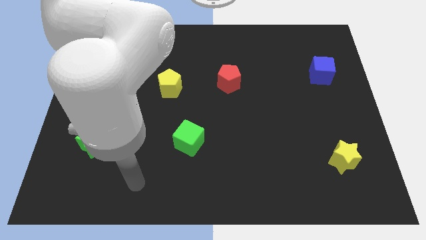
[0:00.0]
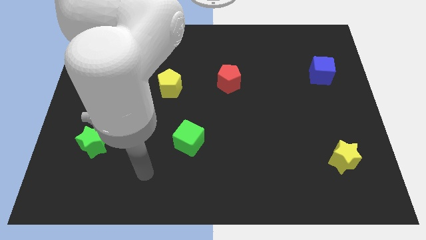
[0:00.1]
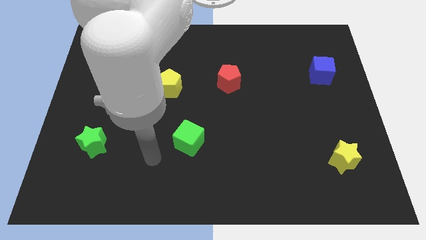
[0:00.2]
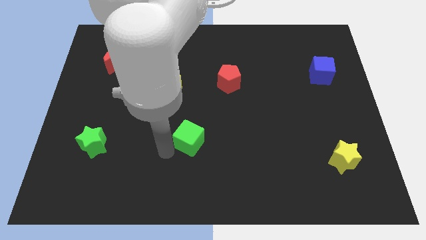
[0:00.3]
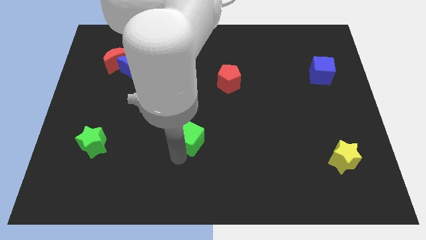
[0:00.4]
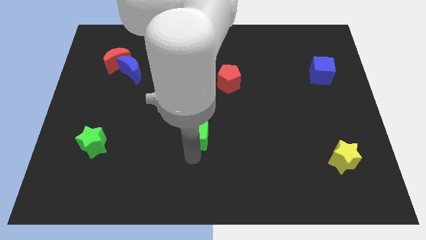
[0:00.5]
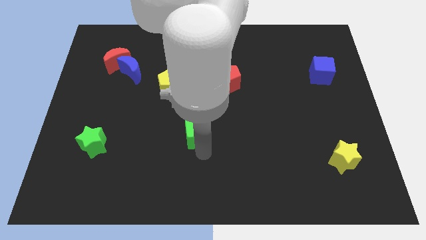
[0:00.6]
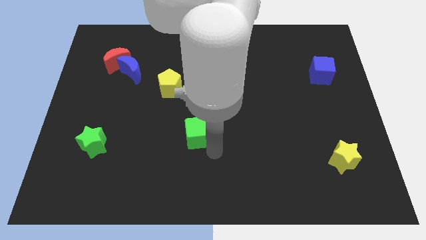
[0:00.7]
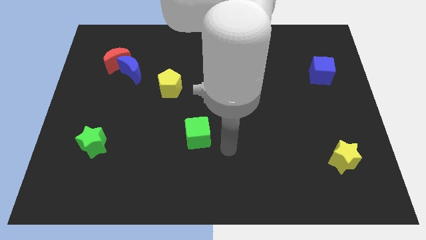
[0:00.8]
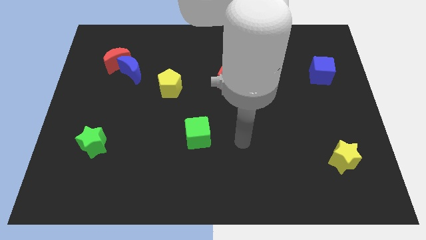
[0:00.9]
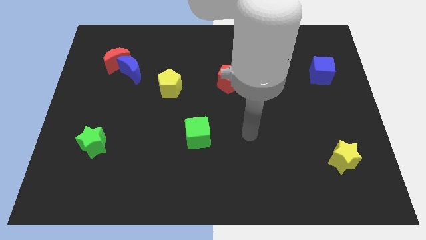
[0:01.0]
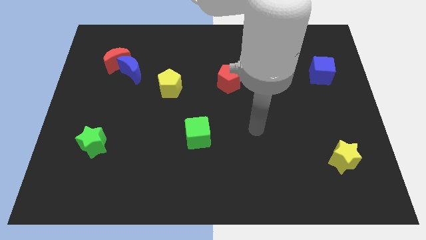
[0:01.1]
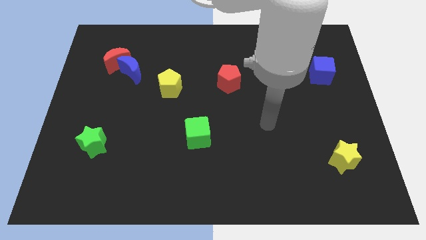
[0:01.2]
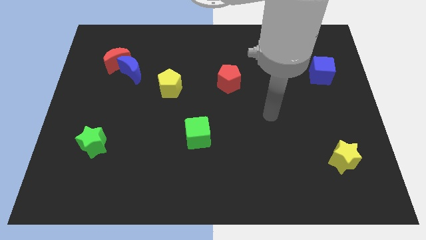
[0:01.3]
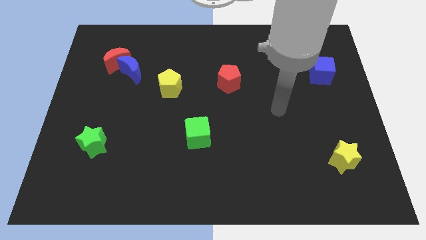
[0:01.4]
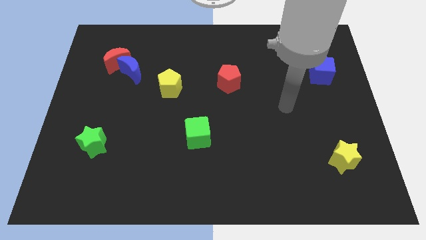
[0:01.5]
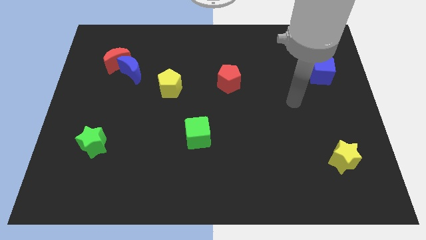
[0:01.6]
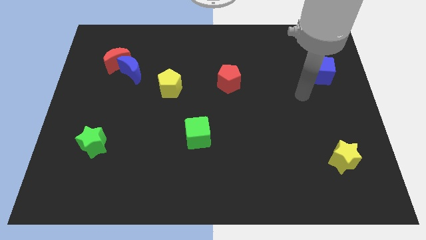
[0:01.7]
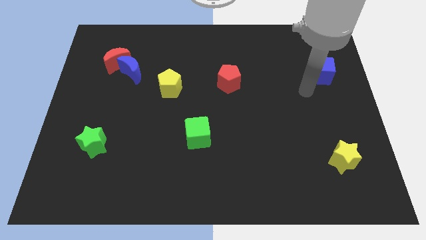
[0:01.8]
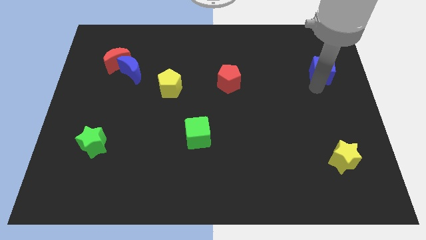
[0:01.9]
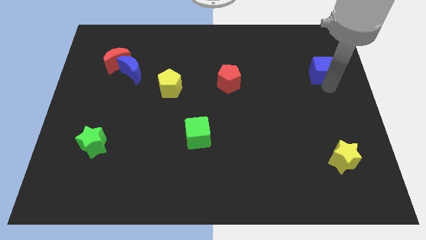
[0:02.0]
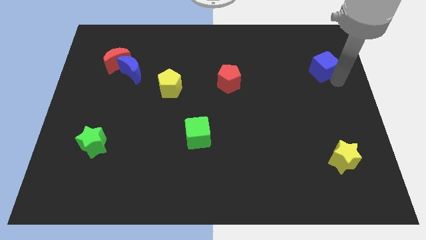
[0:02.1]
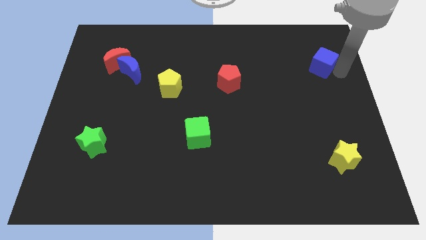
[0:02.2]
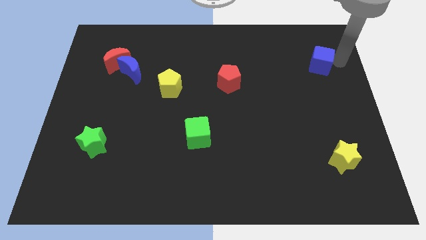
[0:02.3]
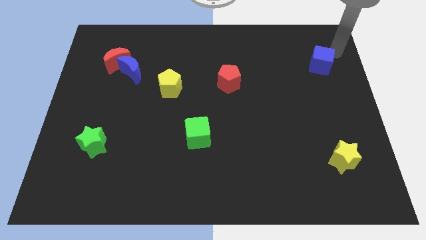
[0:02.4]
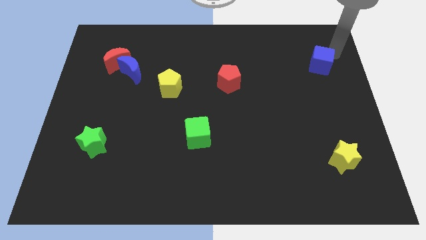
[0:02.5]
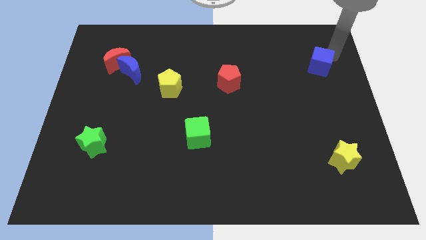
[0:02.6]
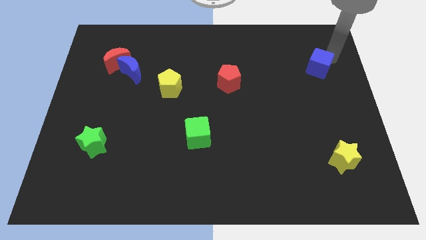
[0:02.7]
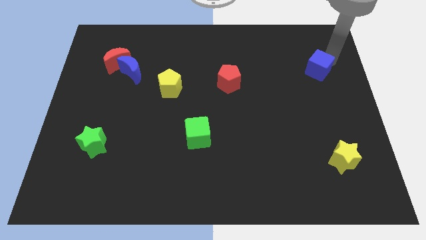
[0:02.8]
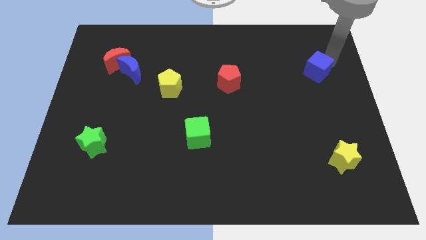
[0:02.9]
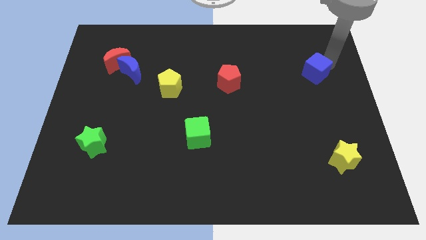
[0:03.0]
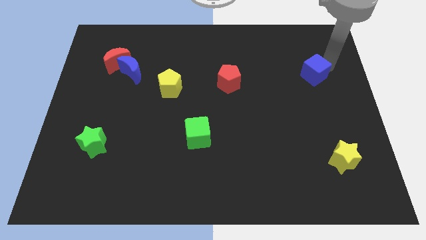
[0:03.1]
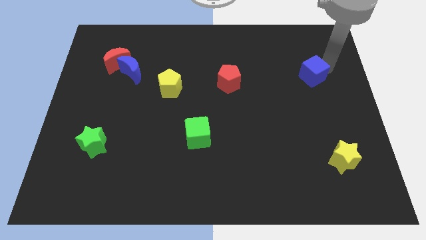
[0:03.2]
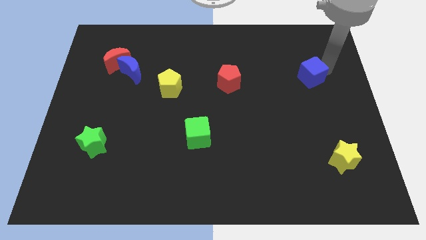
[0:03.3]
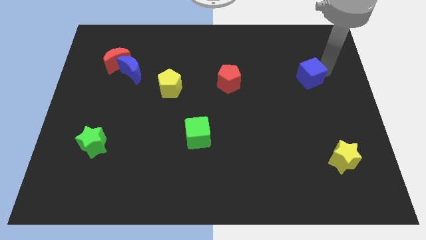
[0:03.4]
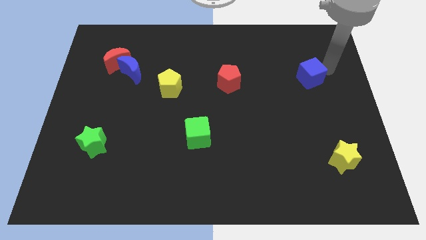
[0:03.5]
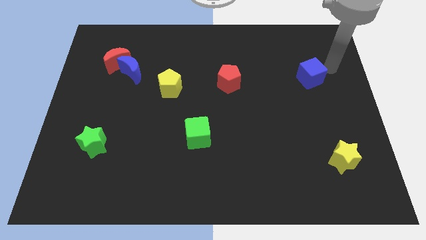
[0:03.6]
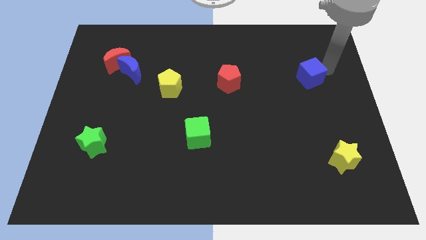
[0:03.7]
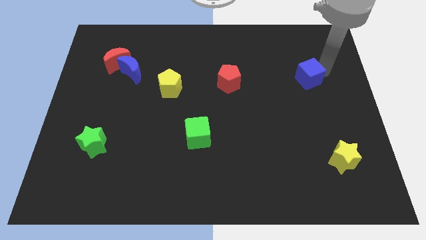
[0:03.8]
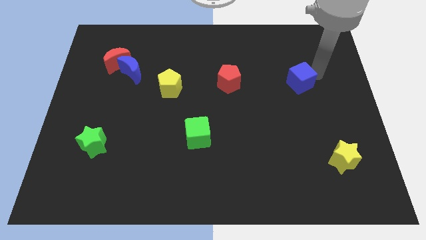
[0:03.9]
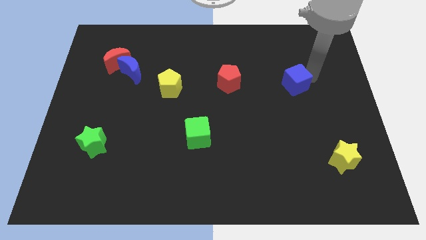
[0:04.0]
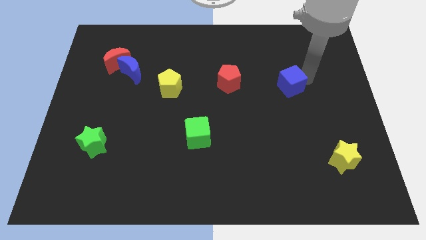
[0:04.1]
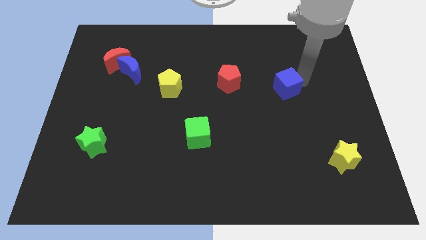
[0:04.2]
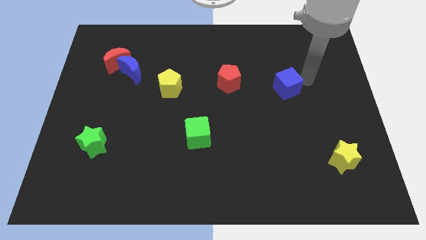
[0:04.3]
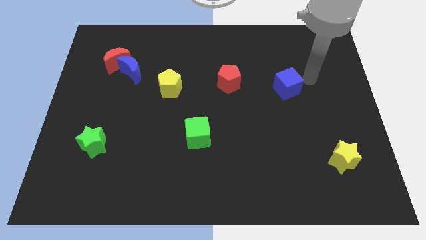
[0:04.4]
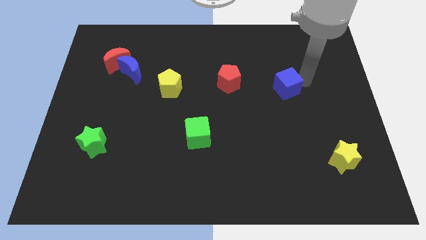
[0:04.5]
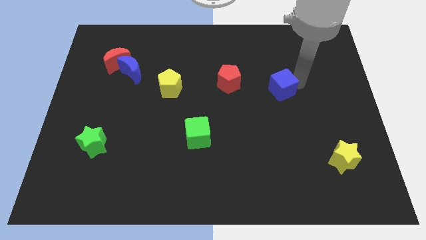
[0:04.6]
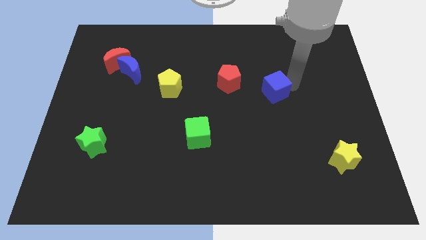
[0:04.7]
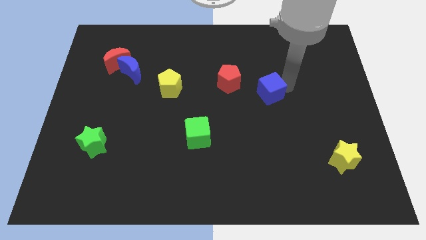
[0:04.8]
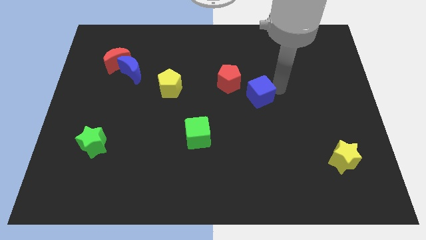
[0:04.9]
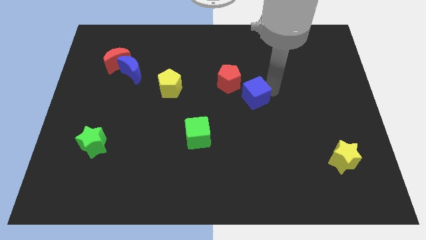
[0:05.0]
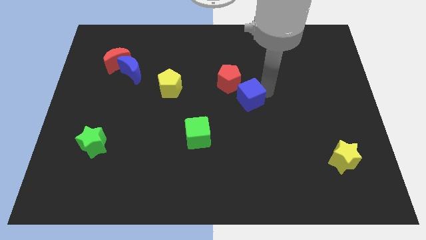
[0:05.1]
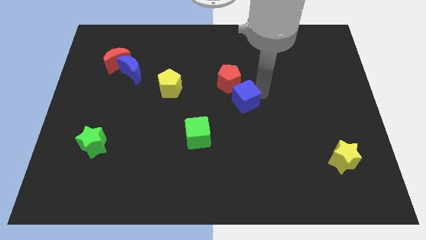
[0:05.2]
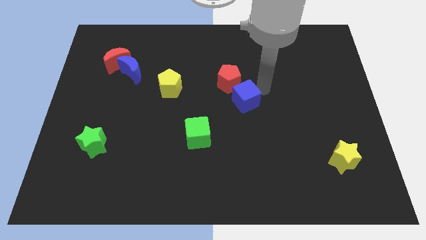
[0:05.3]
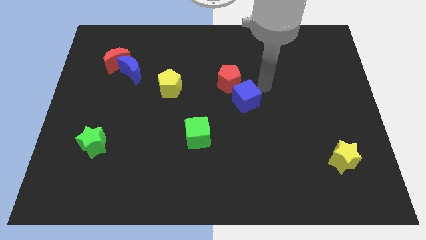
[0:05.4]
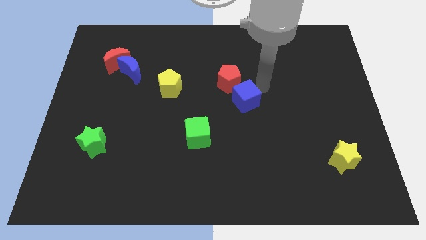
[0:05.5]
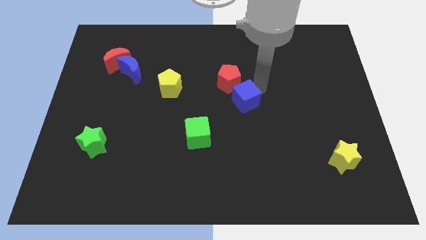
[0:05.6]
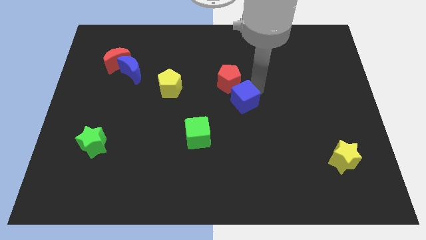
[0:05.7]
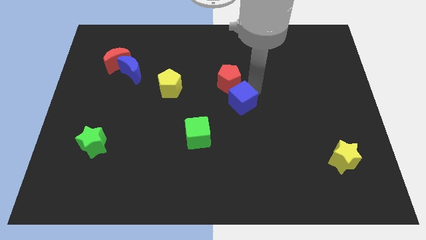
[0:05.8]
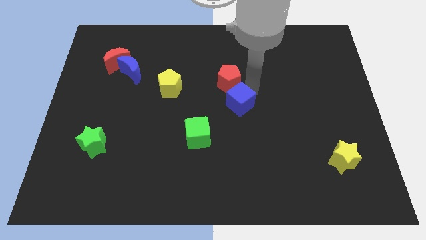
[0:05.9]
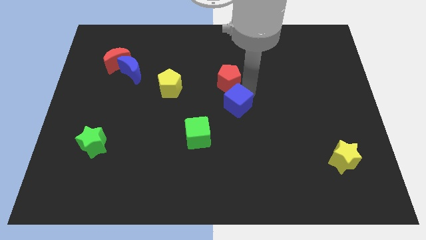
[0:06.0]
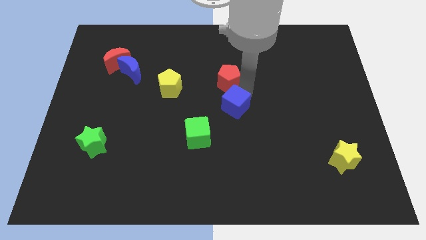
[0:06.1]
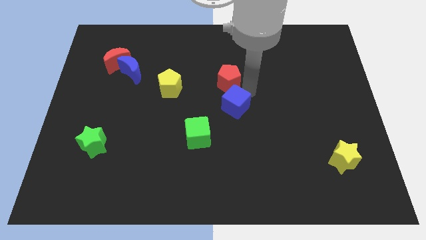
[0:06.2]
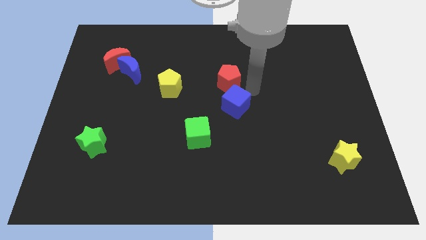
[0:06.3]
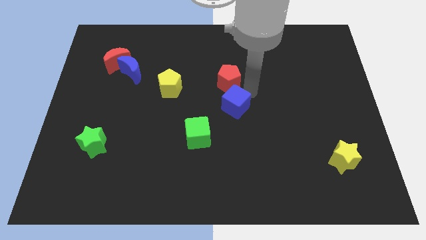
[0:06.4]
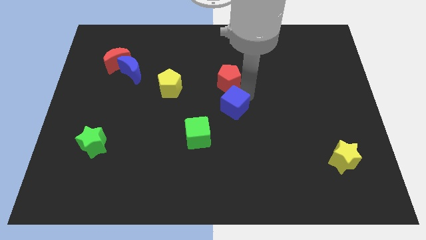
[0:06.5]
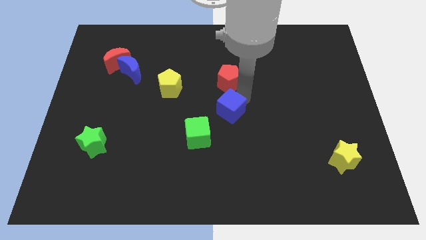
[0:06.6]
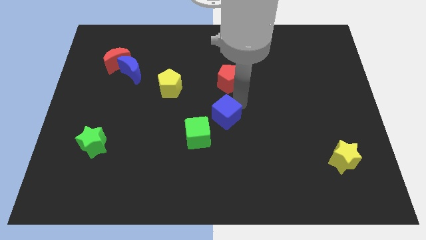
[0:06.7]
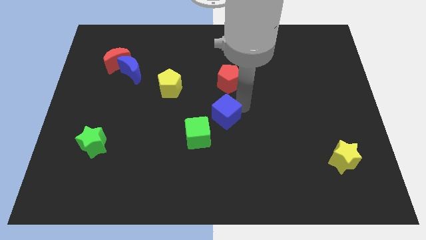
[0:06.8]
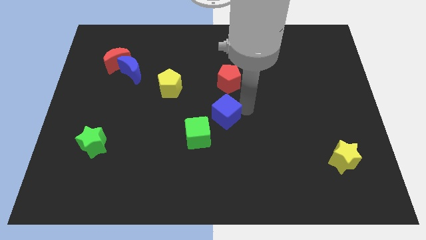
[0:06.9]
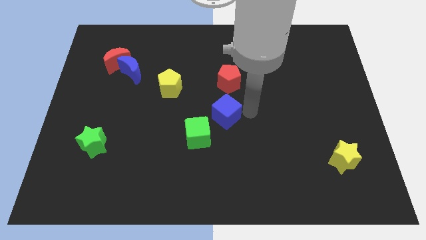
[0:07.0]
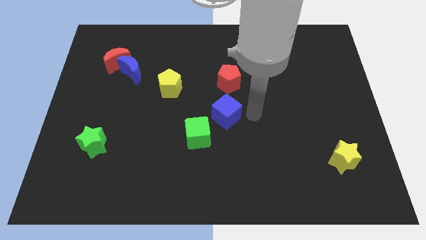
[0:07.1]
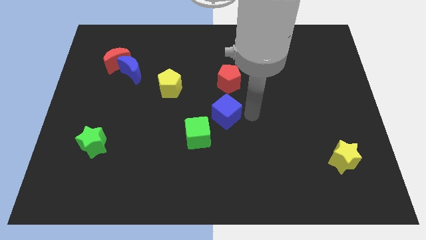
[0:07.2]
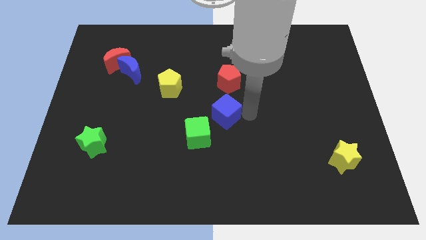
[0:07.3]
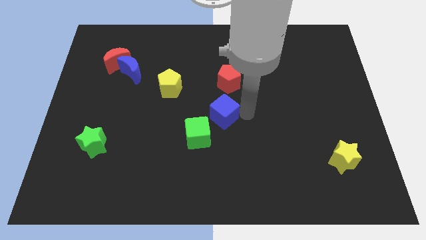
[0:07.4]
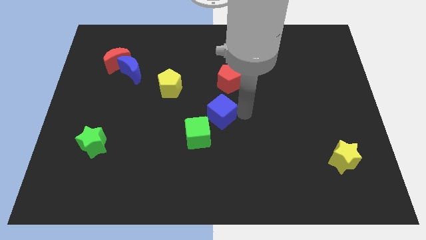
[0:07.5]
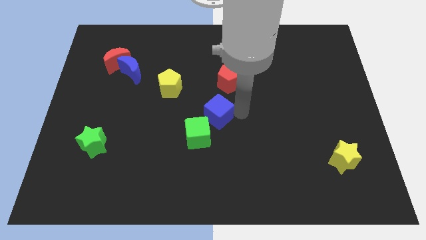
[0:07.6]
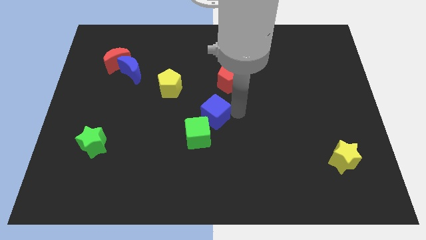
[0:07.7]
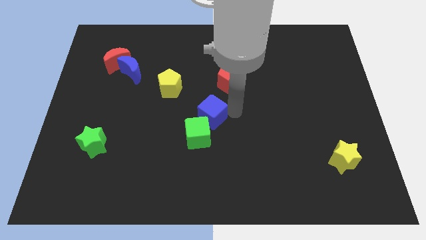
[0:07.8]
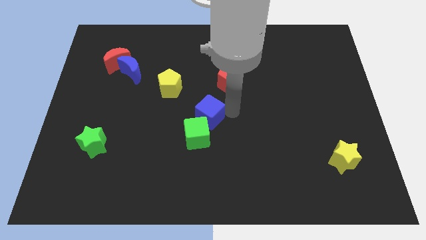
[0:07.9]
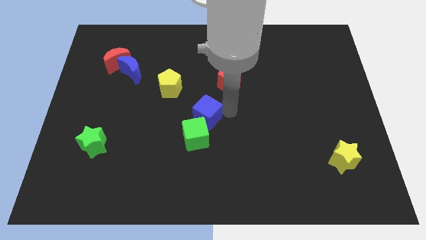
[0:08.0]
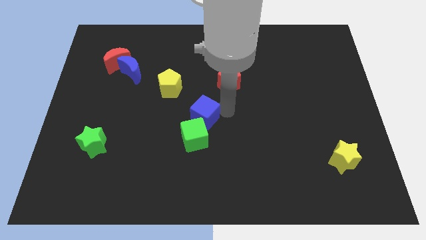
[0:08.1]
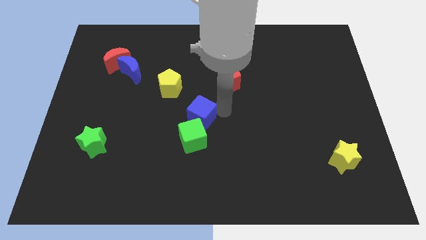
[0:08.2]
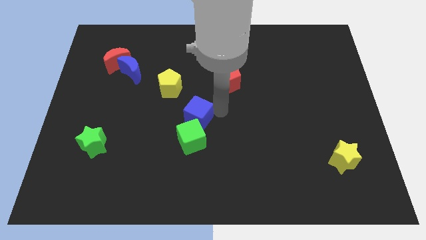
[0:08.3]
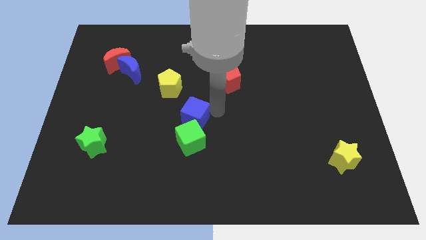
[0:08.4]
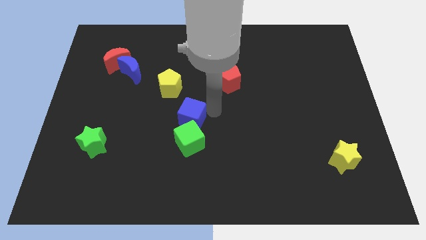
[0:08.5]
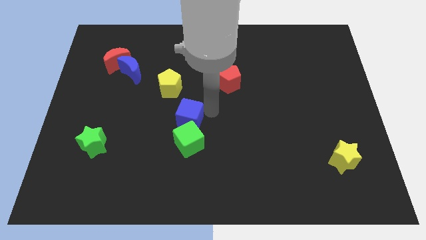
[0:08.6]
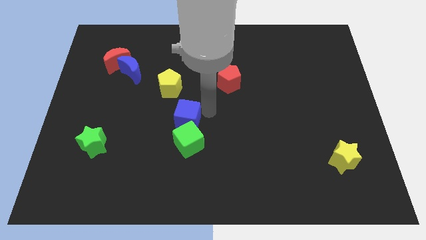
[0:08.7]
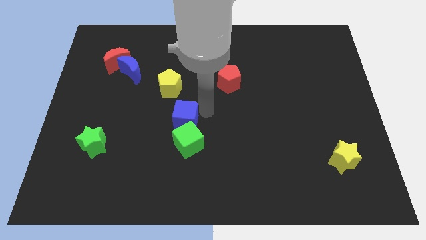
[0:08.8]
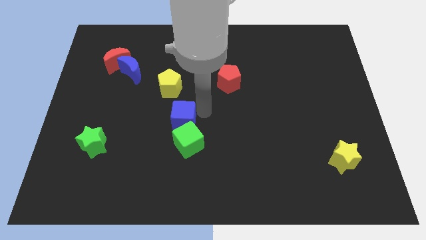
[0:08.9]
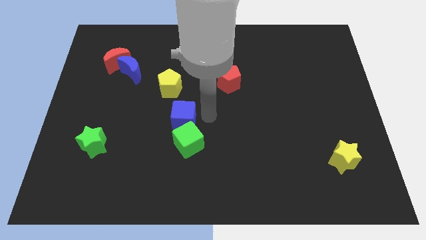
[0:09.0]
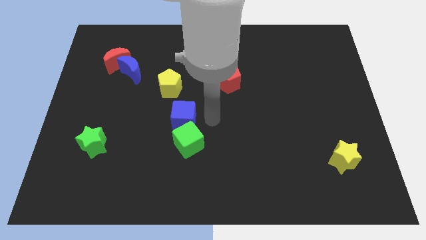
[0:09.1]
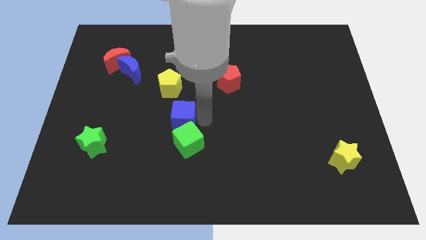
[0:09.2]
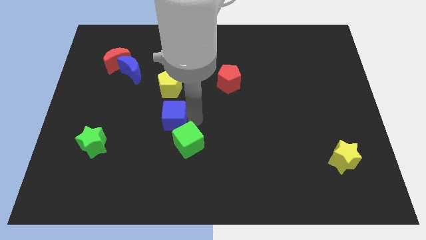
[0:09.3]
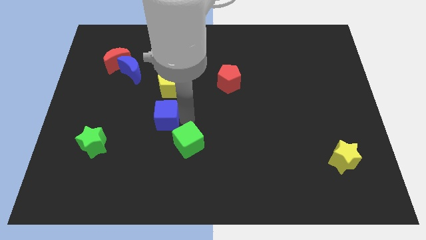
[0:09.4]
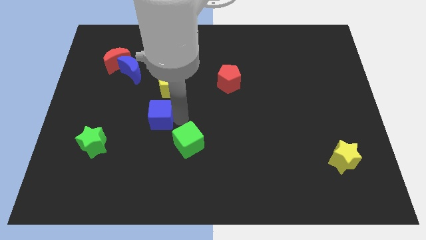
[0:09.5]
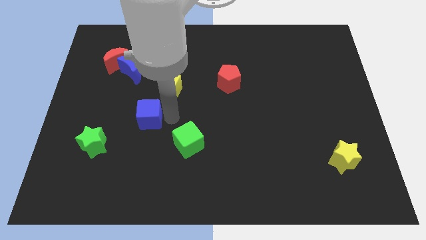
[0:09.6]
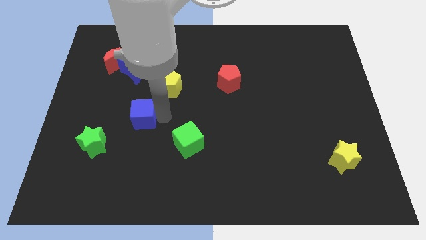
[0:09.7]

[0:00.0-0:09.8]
slide the blue cube to the top right of the green star
